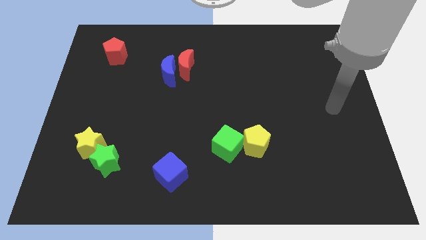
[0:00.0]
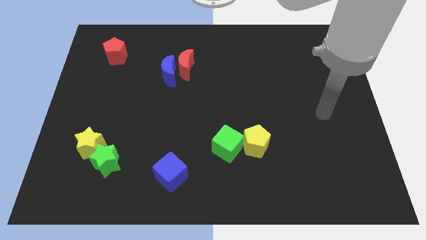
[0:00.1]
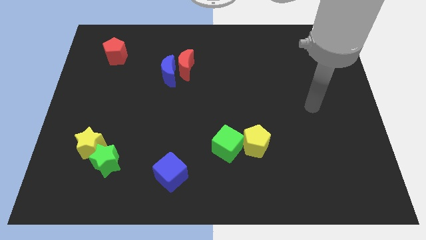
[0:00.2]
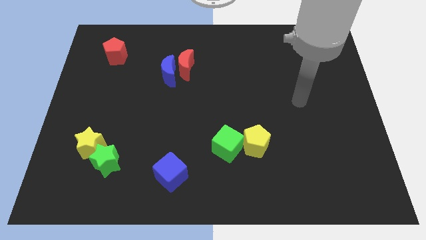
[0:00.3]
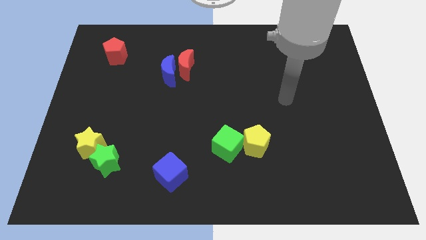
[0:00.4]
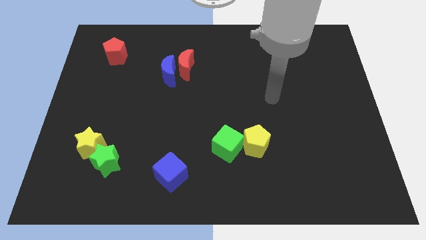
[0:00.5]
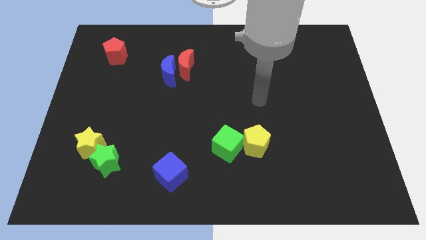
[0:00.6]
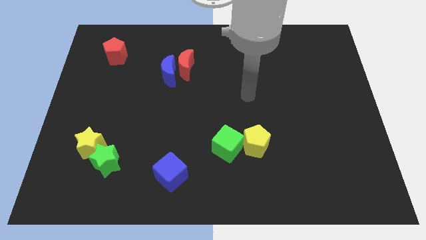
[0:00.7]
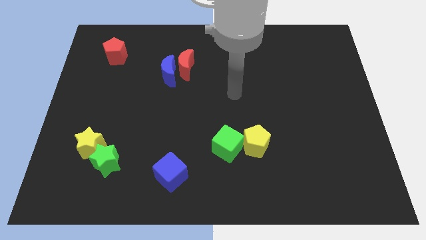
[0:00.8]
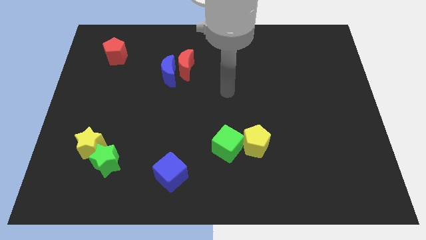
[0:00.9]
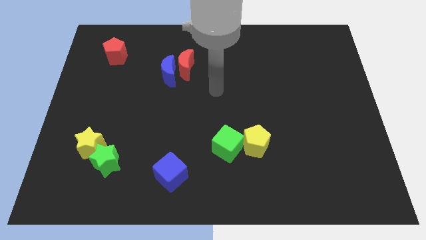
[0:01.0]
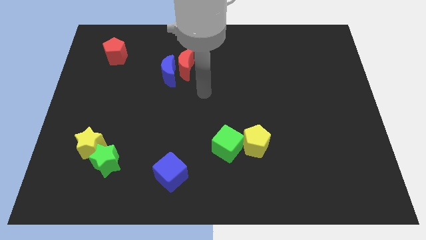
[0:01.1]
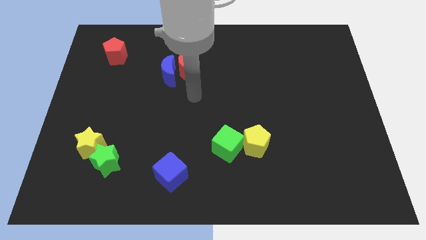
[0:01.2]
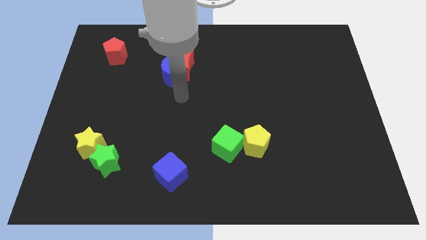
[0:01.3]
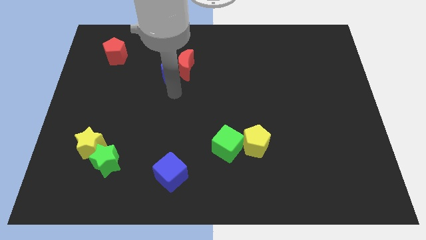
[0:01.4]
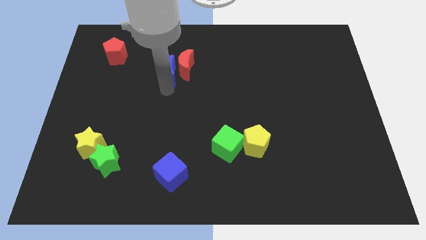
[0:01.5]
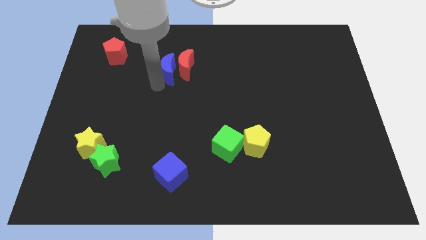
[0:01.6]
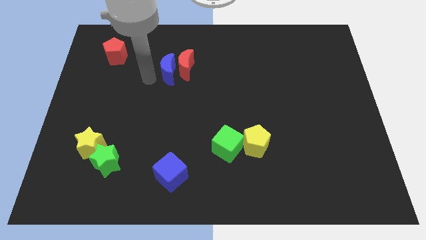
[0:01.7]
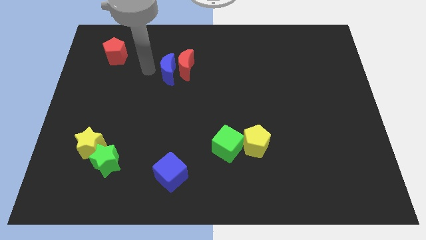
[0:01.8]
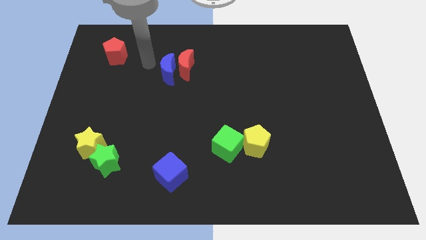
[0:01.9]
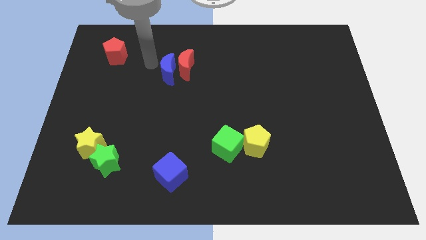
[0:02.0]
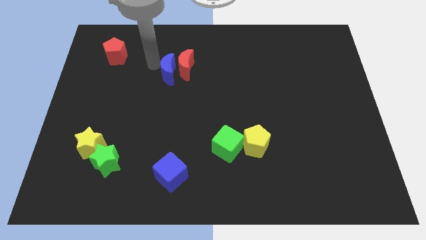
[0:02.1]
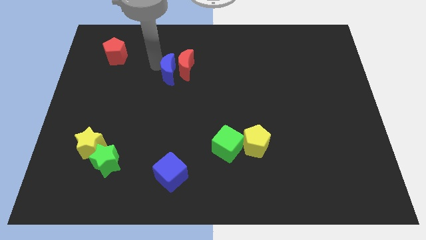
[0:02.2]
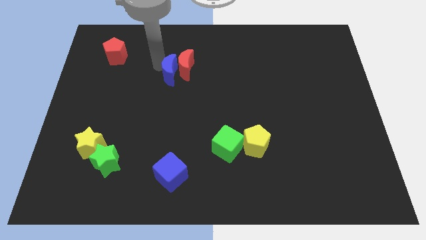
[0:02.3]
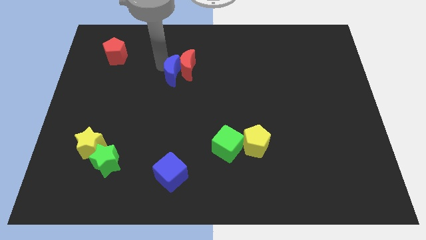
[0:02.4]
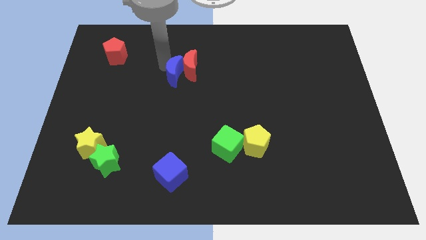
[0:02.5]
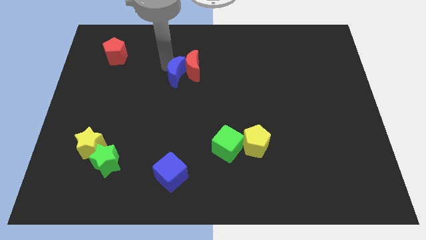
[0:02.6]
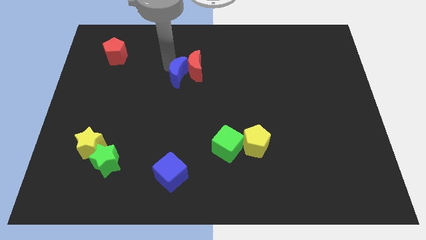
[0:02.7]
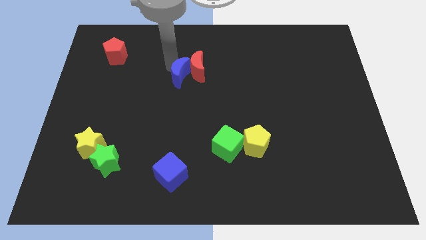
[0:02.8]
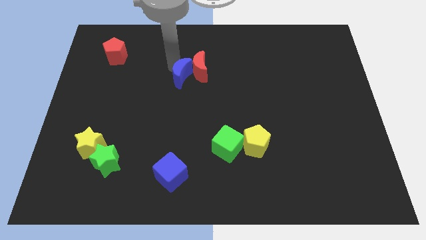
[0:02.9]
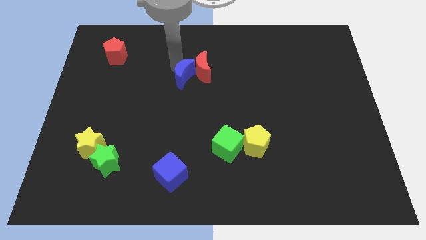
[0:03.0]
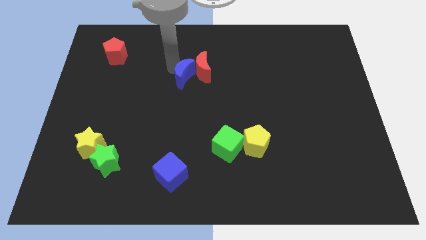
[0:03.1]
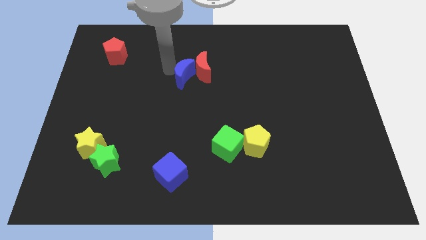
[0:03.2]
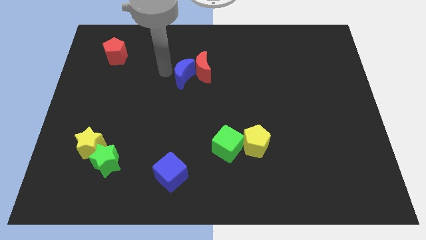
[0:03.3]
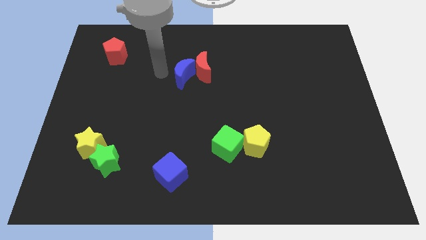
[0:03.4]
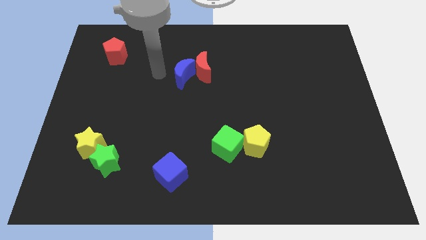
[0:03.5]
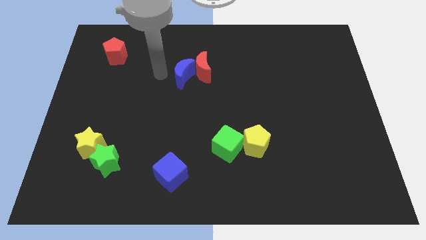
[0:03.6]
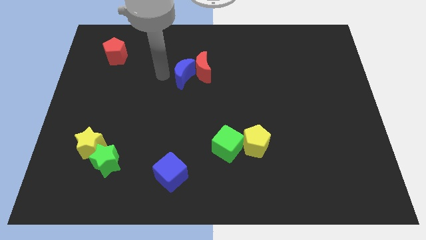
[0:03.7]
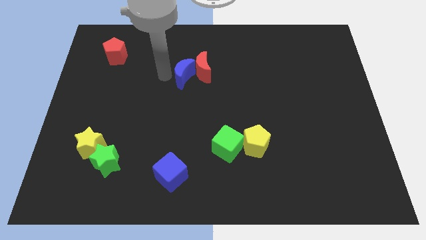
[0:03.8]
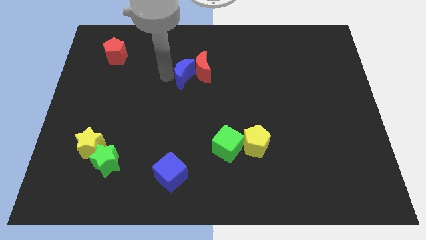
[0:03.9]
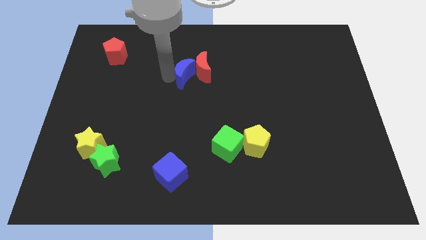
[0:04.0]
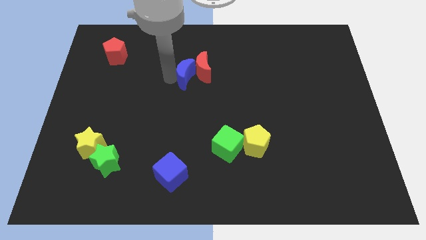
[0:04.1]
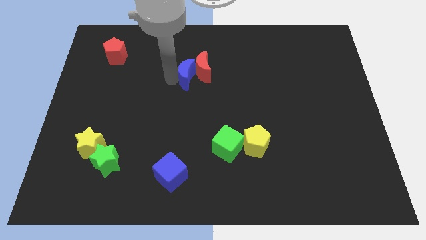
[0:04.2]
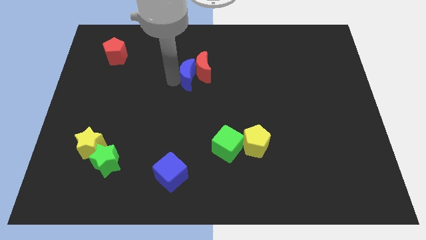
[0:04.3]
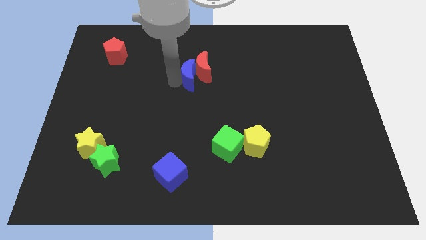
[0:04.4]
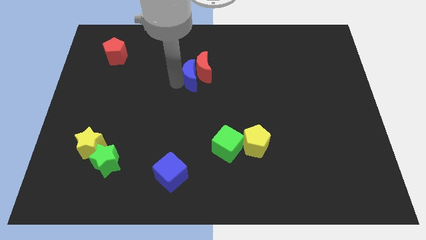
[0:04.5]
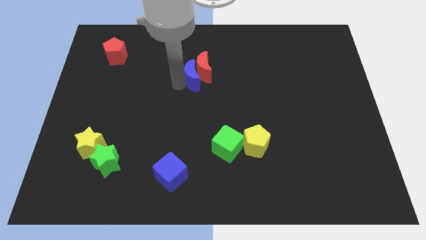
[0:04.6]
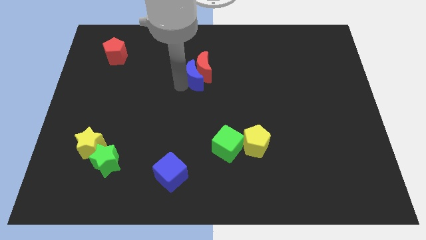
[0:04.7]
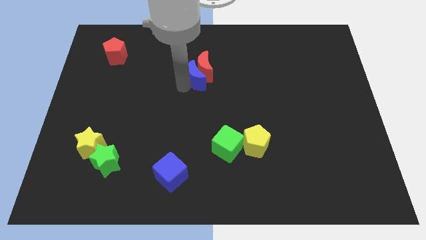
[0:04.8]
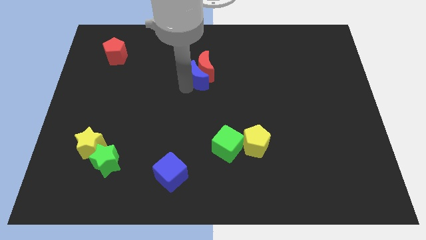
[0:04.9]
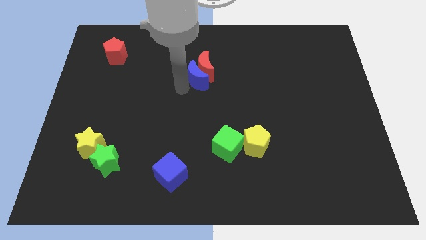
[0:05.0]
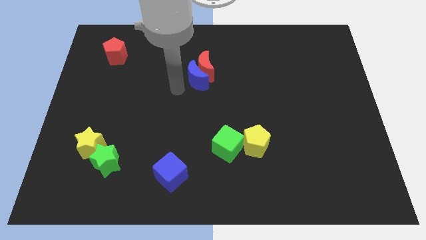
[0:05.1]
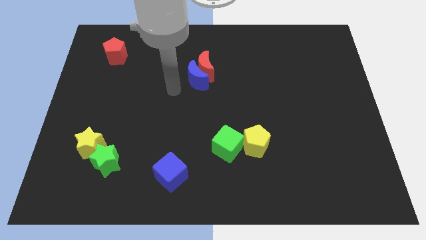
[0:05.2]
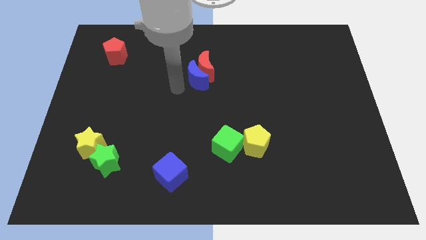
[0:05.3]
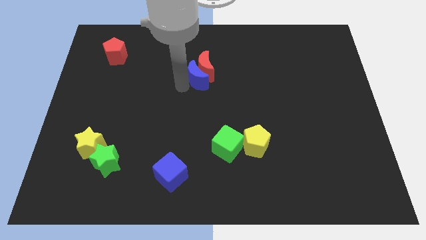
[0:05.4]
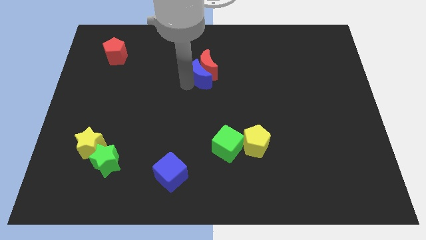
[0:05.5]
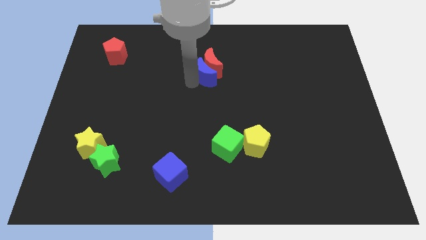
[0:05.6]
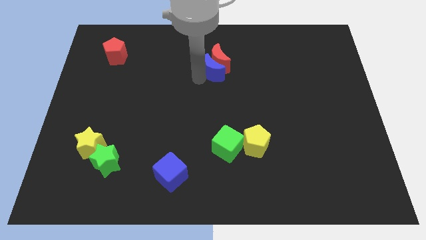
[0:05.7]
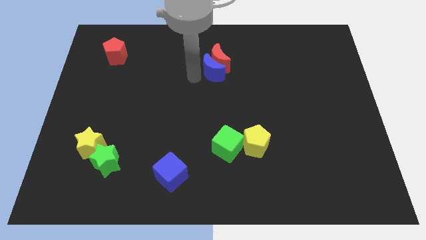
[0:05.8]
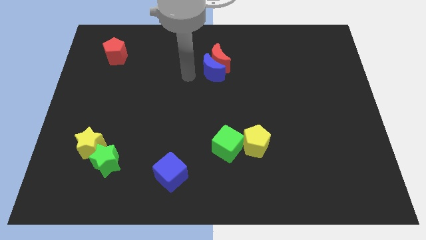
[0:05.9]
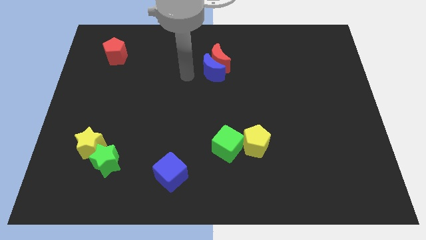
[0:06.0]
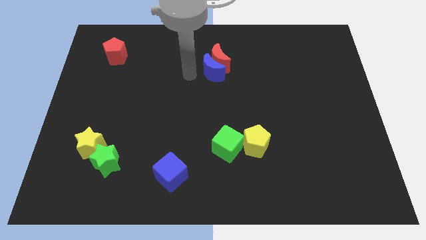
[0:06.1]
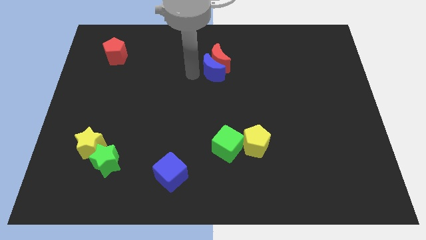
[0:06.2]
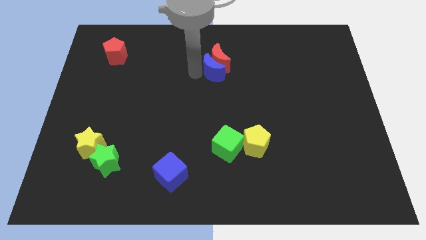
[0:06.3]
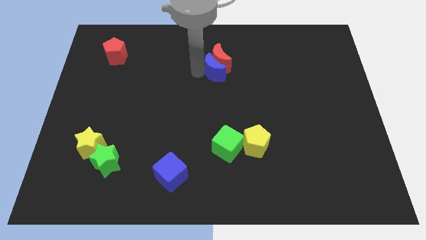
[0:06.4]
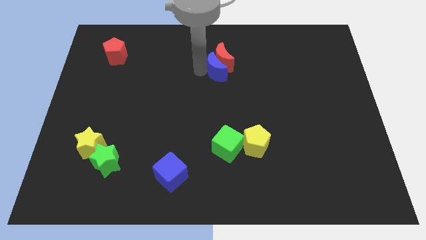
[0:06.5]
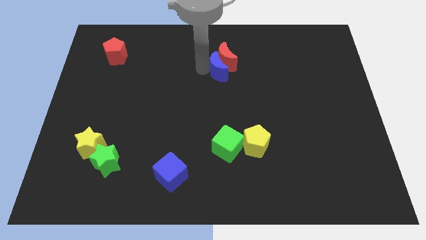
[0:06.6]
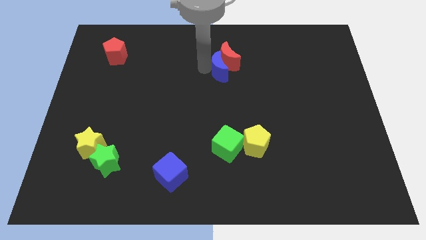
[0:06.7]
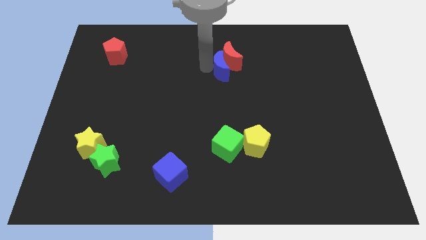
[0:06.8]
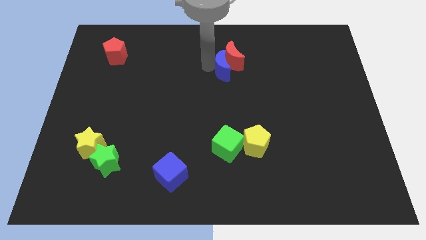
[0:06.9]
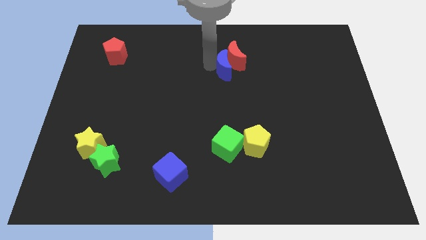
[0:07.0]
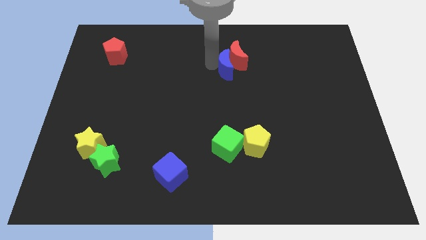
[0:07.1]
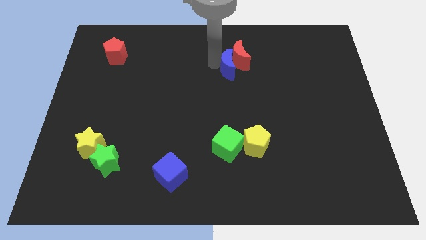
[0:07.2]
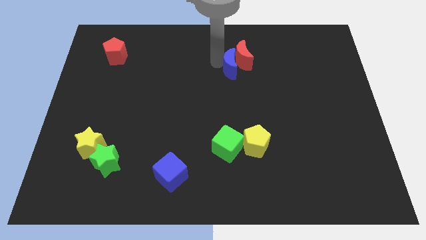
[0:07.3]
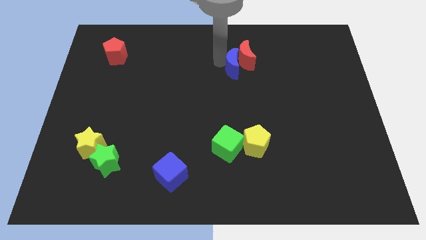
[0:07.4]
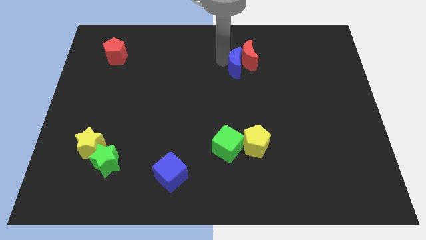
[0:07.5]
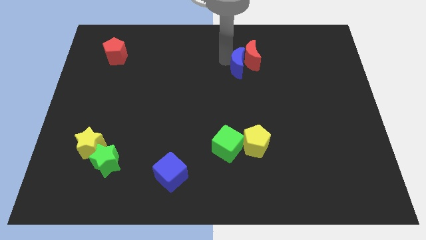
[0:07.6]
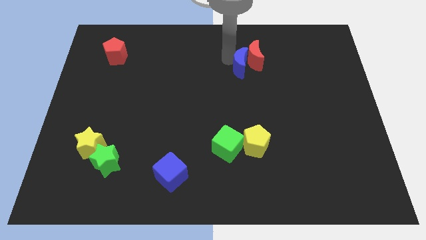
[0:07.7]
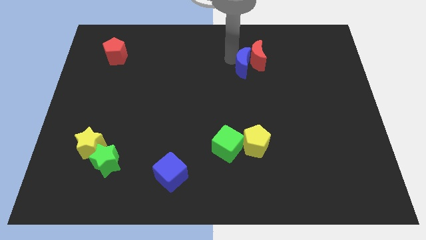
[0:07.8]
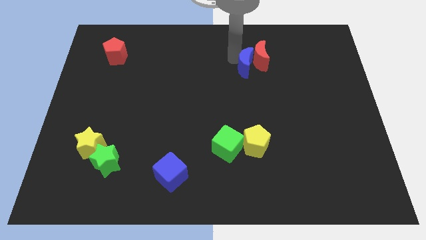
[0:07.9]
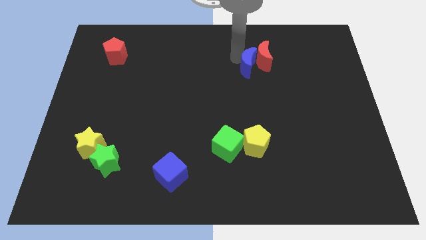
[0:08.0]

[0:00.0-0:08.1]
push the blue moon to the right
